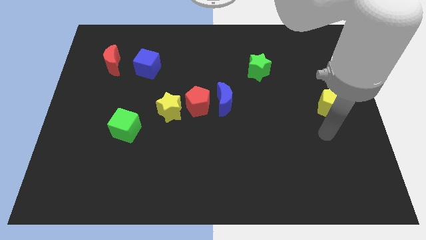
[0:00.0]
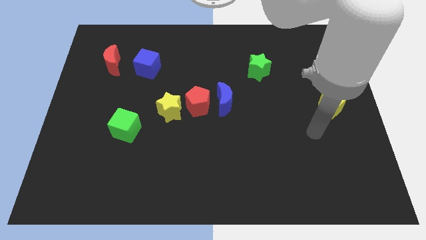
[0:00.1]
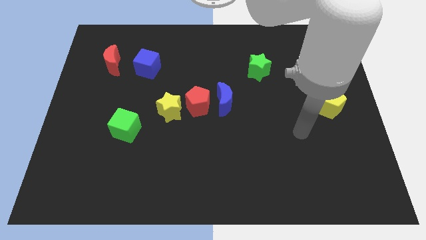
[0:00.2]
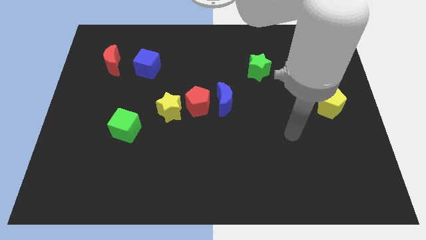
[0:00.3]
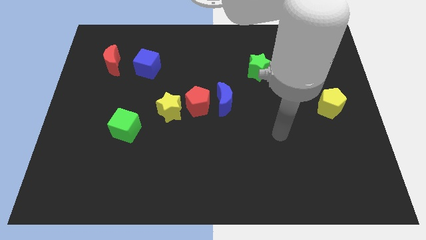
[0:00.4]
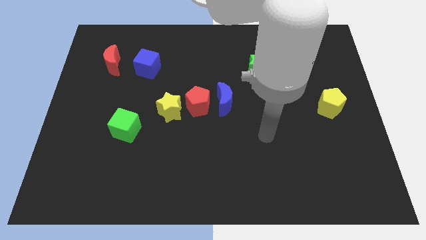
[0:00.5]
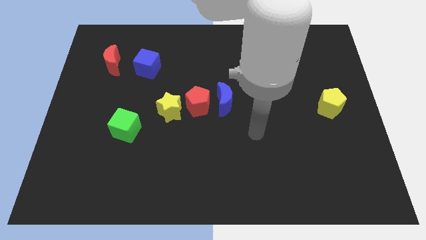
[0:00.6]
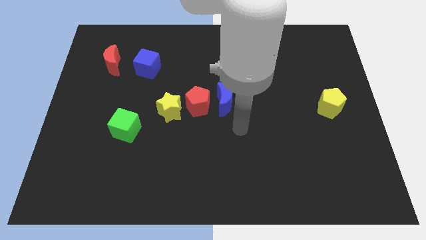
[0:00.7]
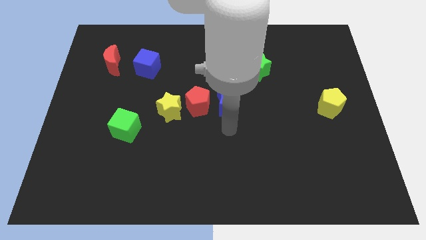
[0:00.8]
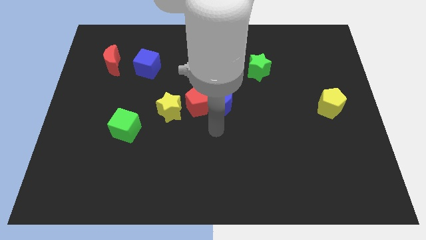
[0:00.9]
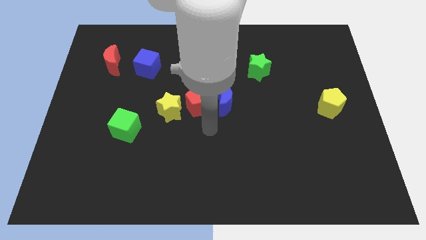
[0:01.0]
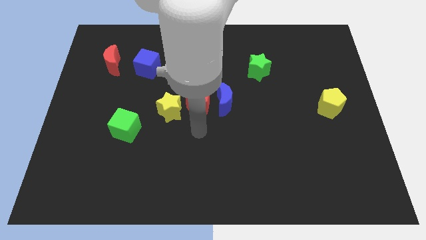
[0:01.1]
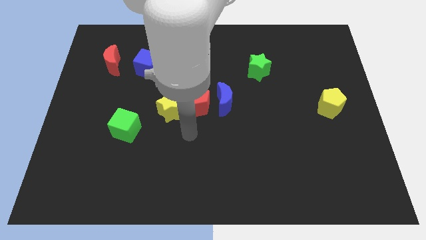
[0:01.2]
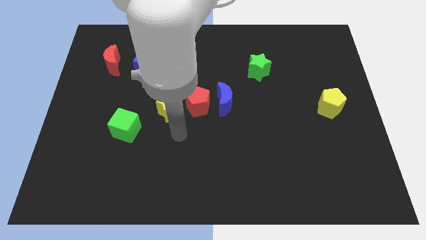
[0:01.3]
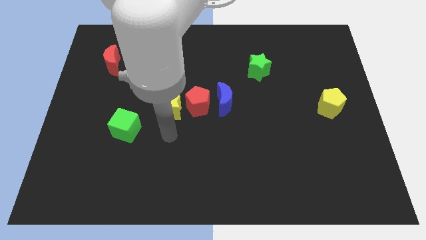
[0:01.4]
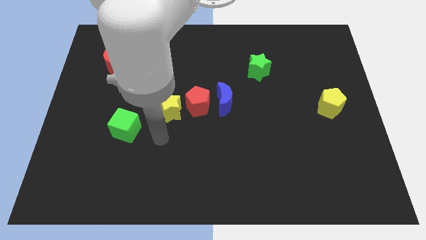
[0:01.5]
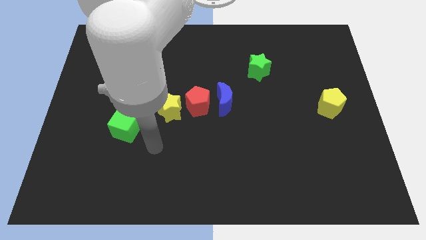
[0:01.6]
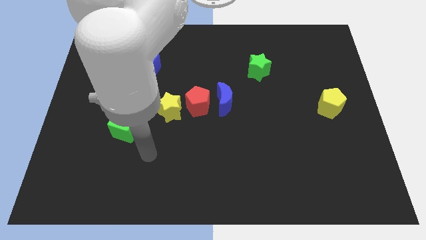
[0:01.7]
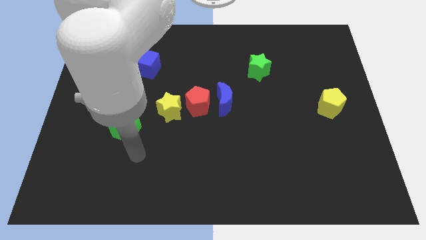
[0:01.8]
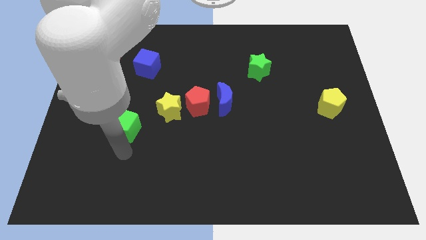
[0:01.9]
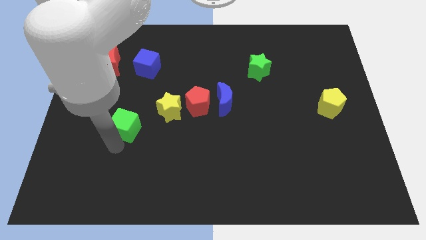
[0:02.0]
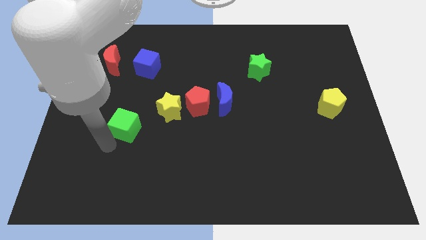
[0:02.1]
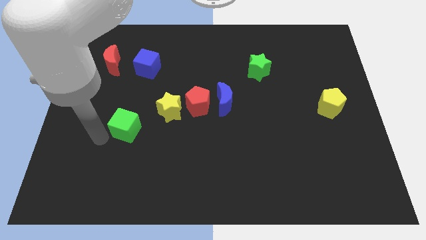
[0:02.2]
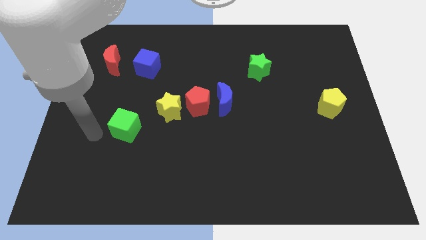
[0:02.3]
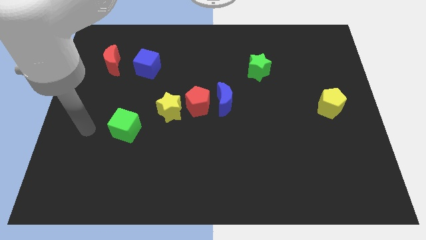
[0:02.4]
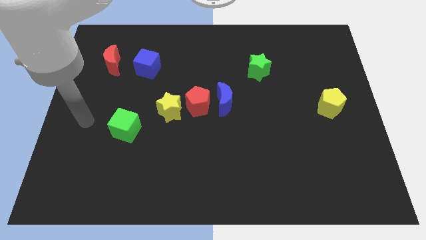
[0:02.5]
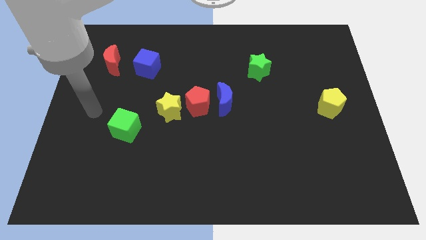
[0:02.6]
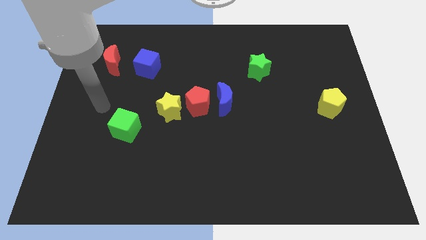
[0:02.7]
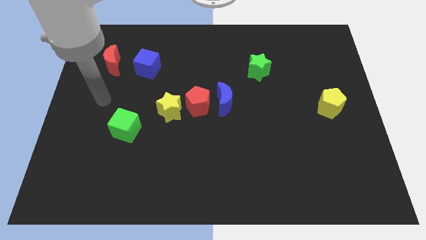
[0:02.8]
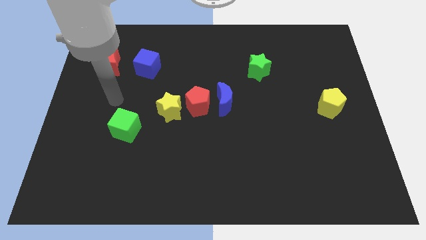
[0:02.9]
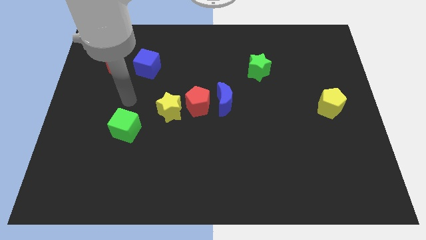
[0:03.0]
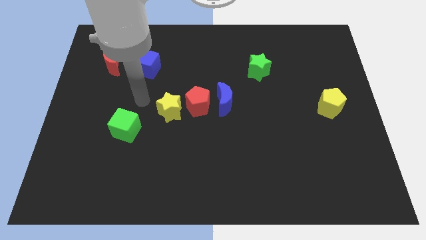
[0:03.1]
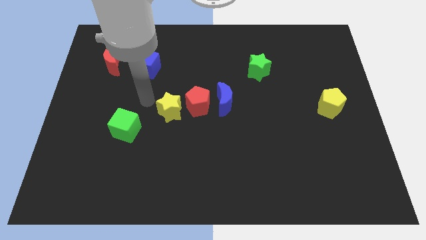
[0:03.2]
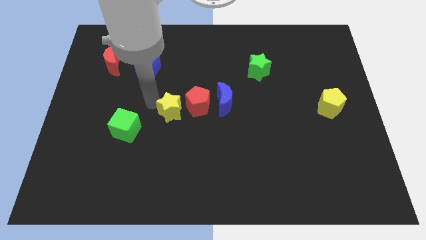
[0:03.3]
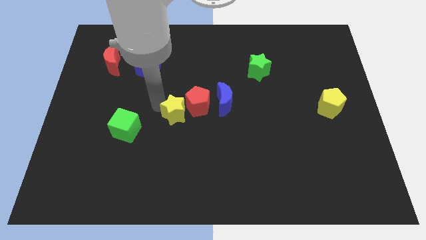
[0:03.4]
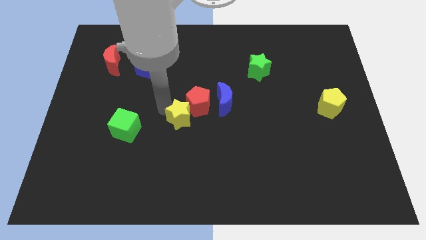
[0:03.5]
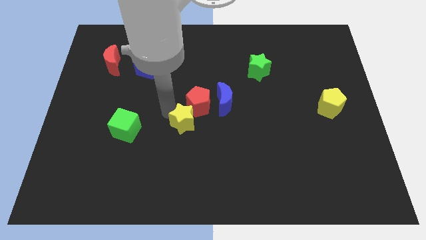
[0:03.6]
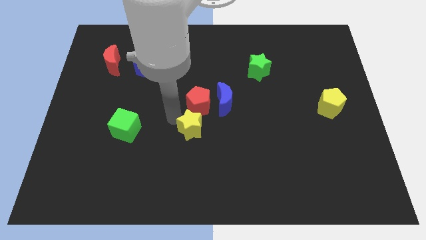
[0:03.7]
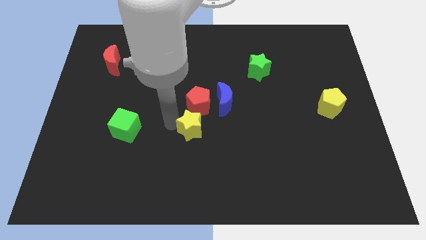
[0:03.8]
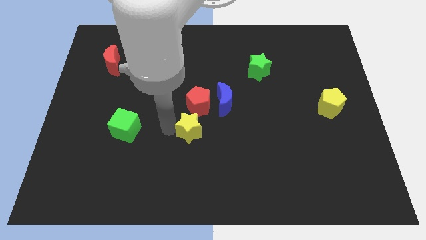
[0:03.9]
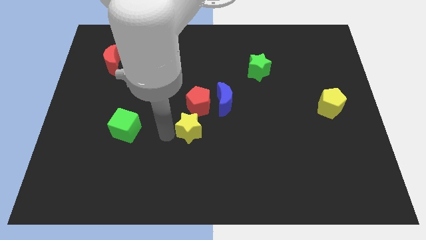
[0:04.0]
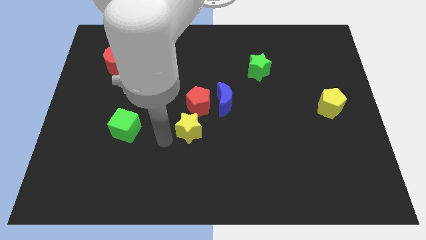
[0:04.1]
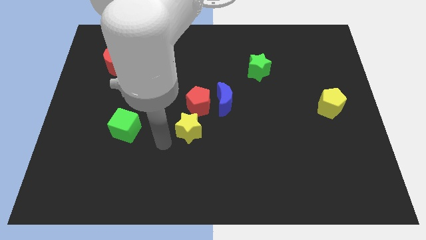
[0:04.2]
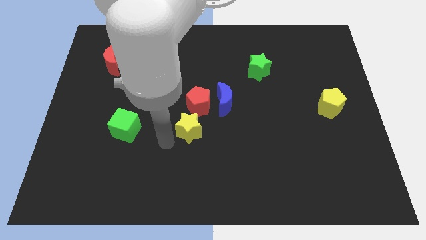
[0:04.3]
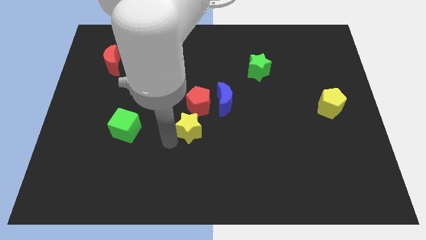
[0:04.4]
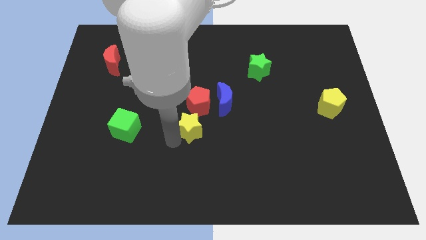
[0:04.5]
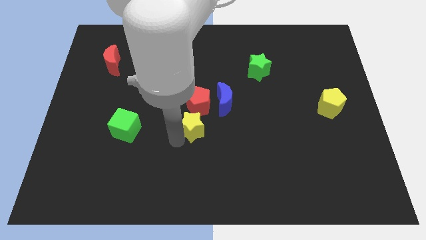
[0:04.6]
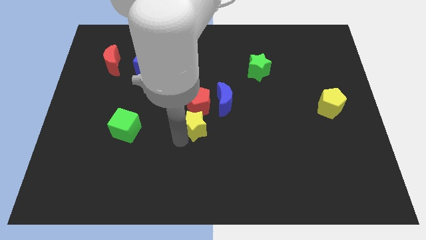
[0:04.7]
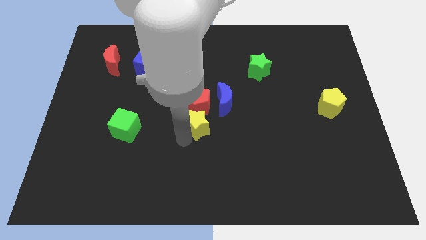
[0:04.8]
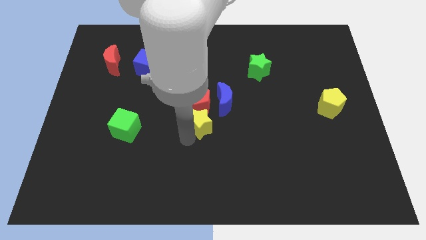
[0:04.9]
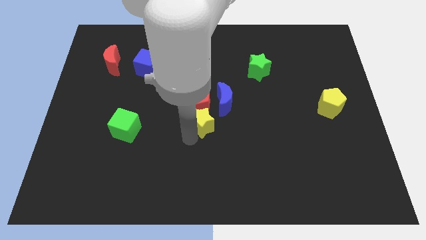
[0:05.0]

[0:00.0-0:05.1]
slide the yellow star right a bit

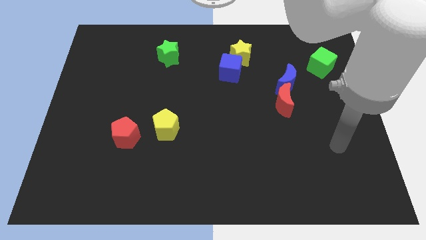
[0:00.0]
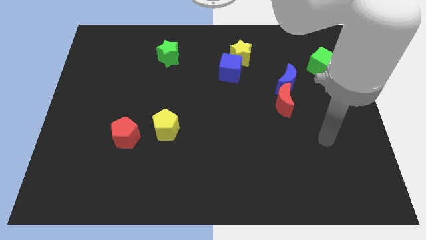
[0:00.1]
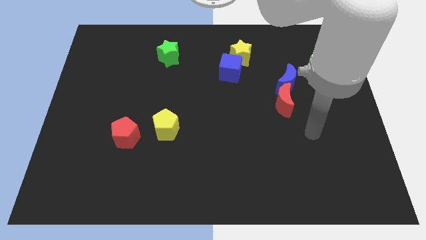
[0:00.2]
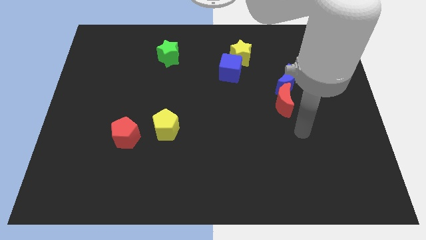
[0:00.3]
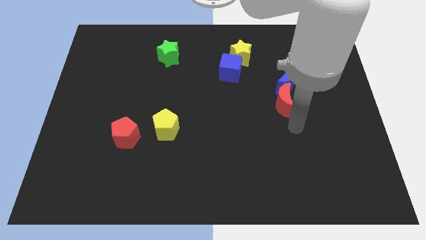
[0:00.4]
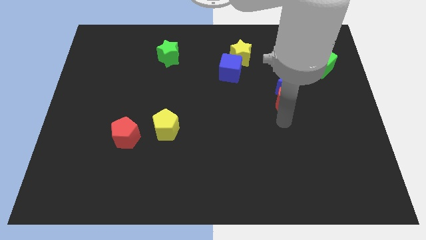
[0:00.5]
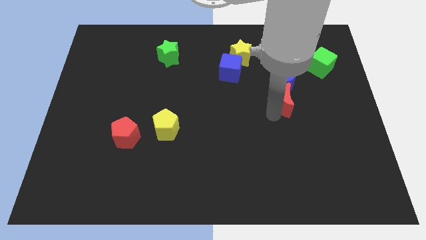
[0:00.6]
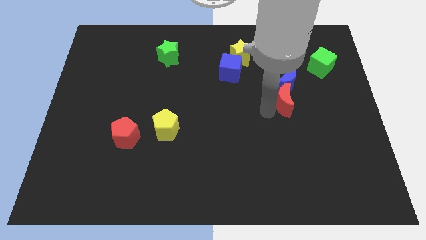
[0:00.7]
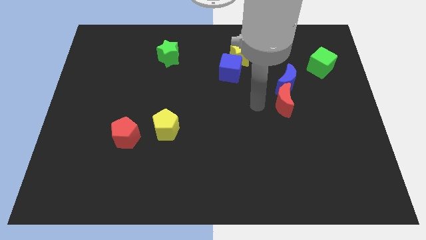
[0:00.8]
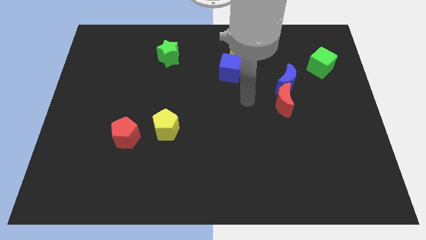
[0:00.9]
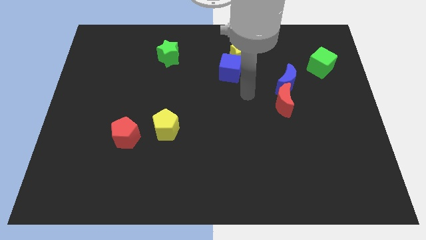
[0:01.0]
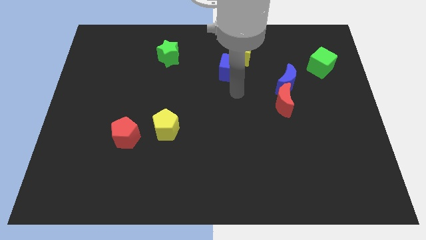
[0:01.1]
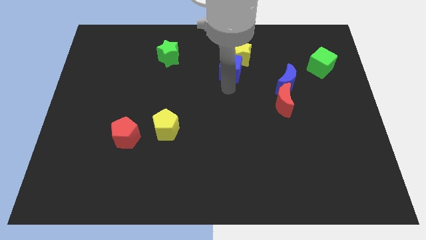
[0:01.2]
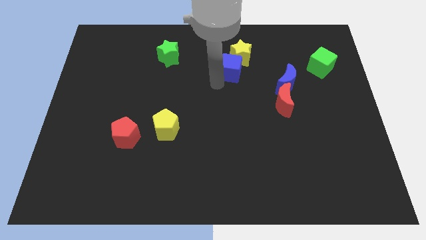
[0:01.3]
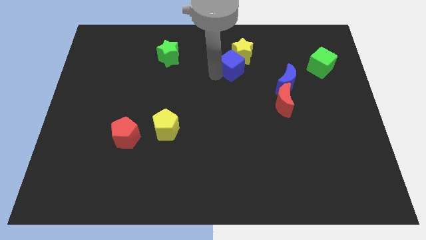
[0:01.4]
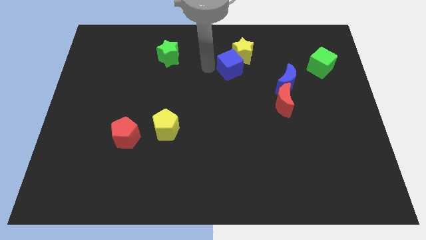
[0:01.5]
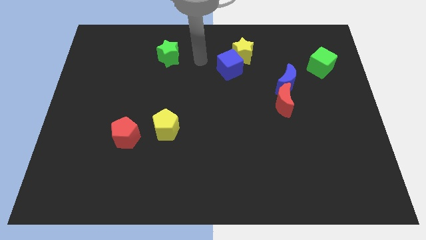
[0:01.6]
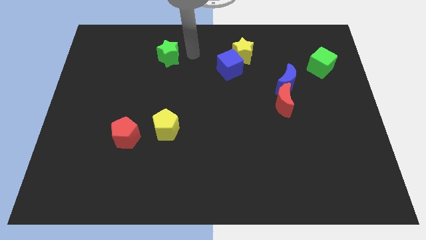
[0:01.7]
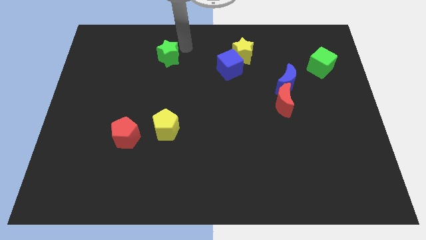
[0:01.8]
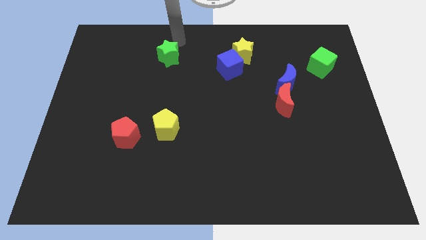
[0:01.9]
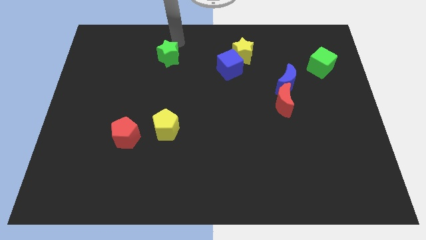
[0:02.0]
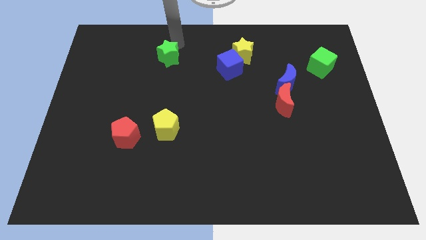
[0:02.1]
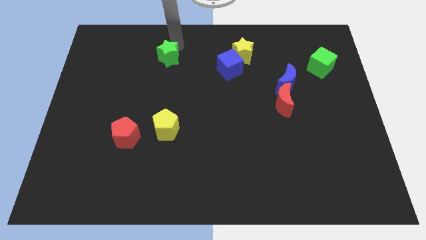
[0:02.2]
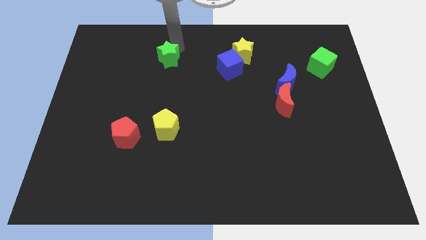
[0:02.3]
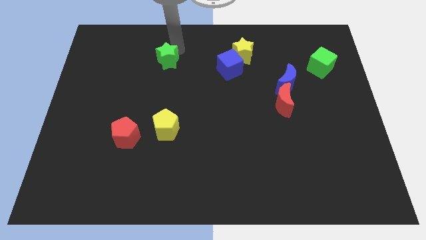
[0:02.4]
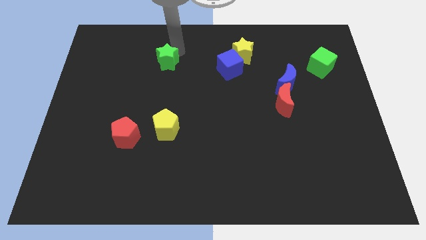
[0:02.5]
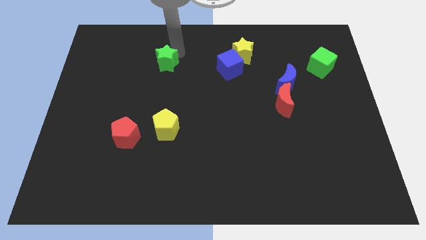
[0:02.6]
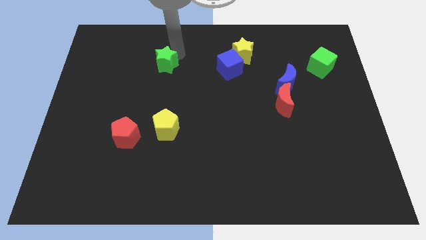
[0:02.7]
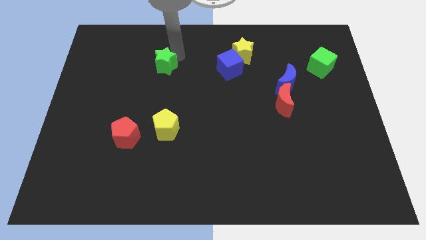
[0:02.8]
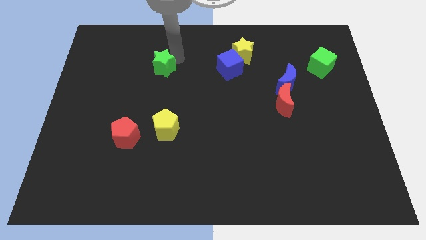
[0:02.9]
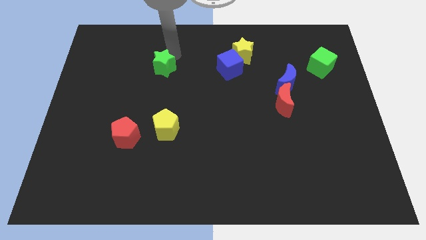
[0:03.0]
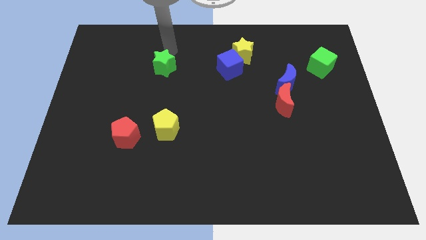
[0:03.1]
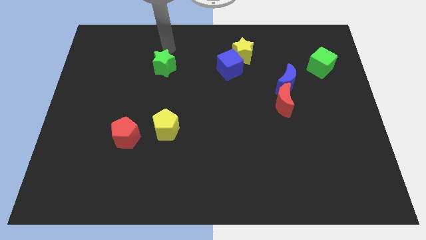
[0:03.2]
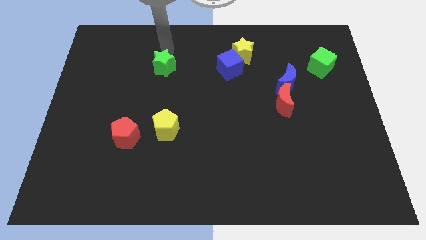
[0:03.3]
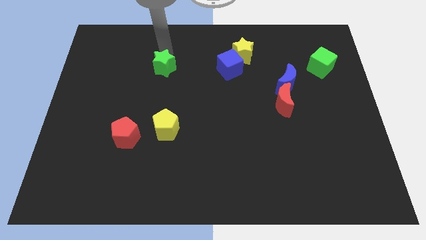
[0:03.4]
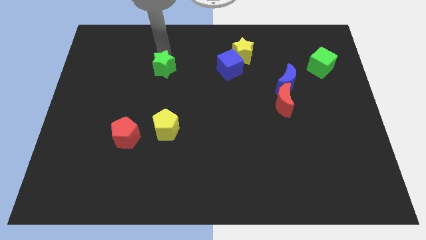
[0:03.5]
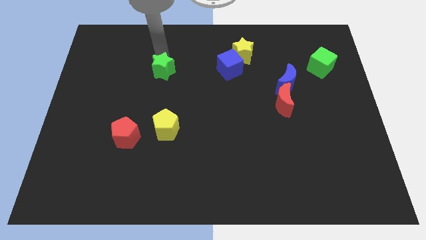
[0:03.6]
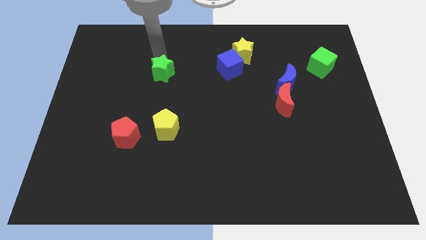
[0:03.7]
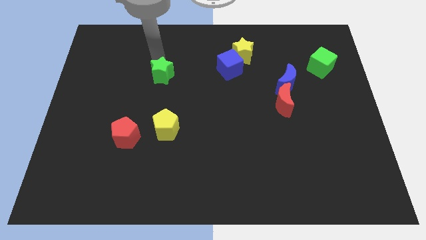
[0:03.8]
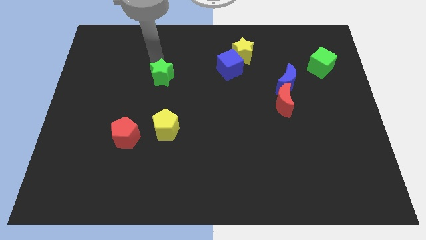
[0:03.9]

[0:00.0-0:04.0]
move the green star downwards a little bit
